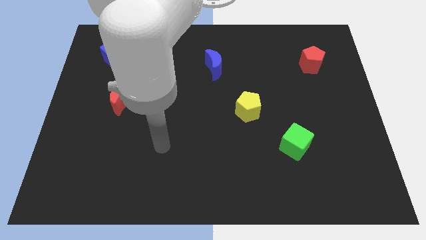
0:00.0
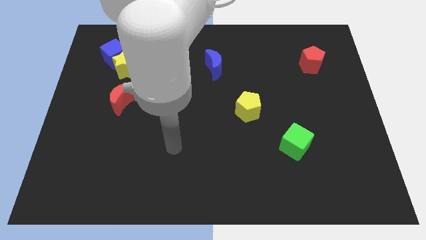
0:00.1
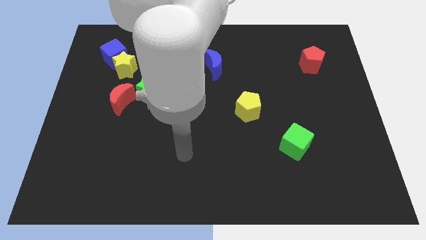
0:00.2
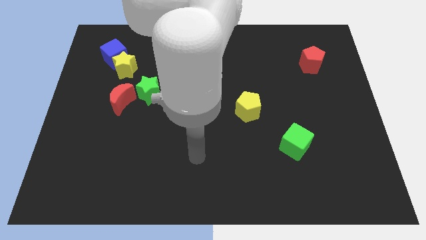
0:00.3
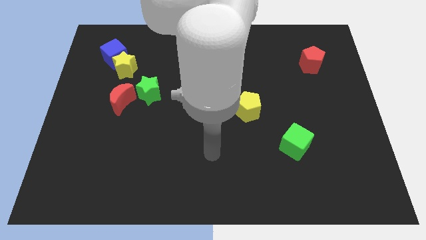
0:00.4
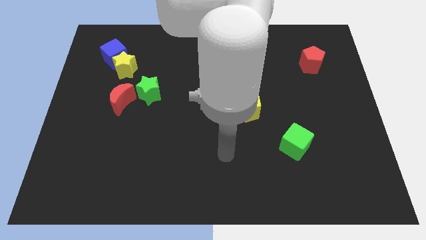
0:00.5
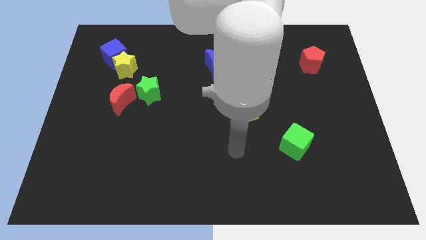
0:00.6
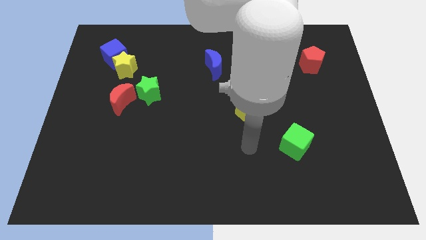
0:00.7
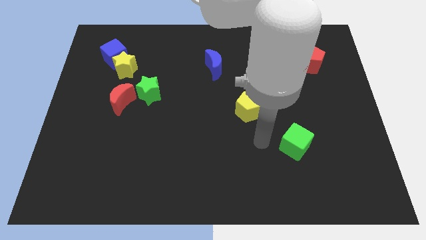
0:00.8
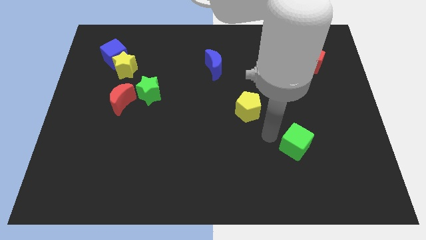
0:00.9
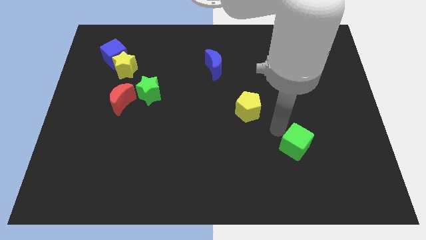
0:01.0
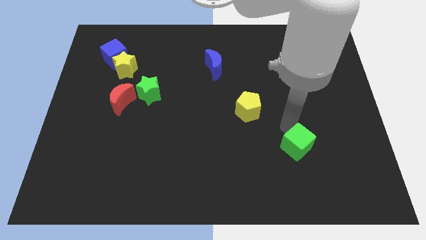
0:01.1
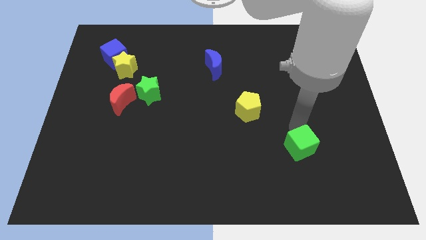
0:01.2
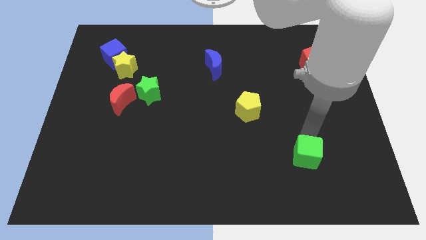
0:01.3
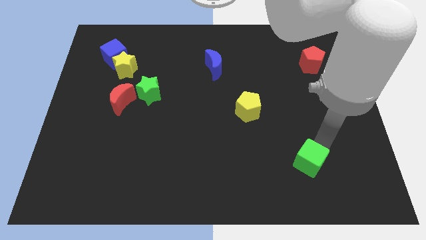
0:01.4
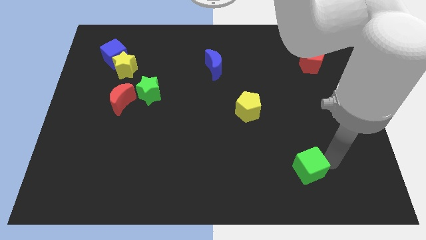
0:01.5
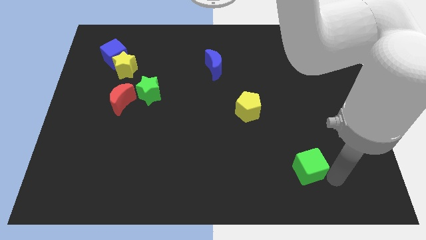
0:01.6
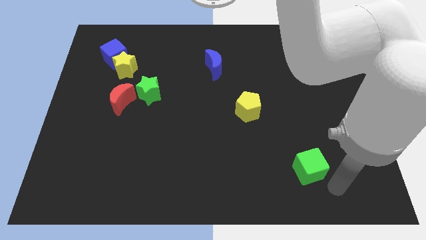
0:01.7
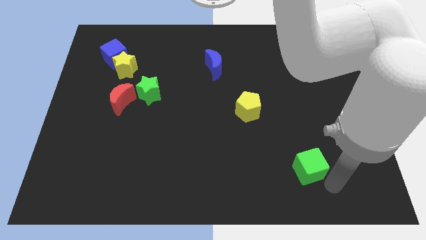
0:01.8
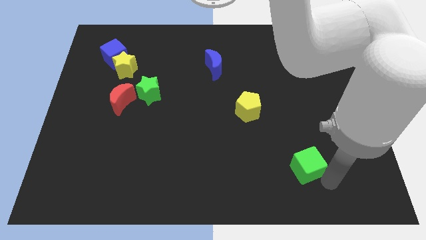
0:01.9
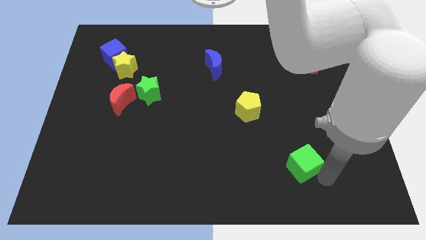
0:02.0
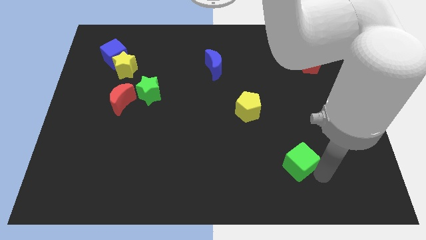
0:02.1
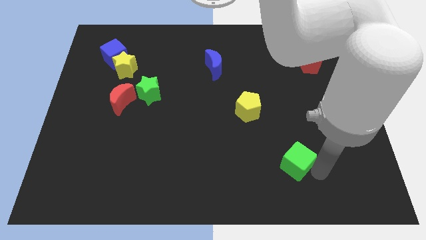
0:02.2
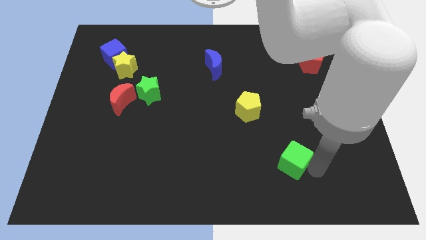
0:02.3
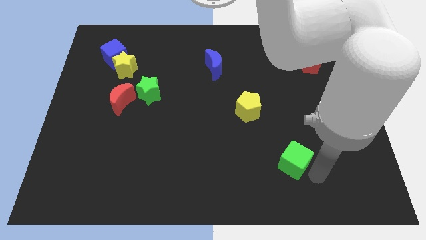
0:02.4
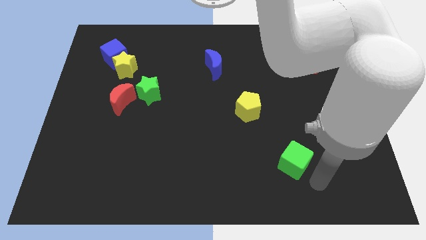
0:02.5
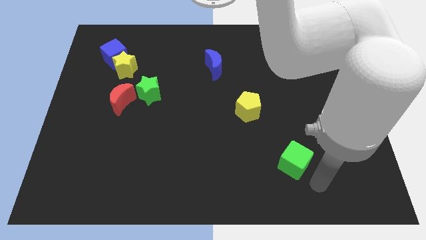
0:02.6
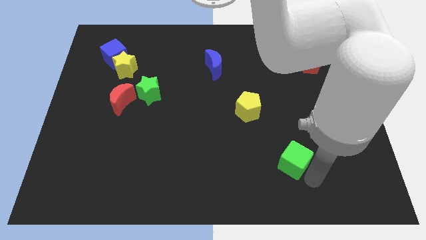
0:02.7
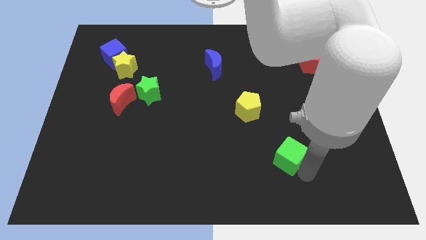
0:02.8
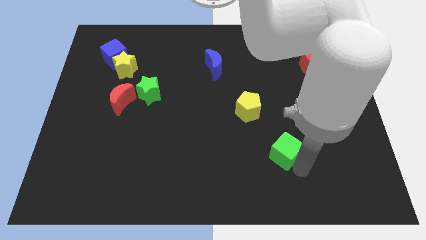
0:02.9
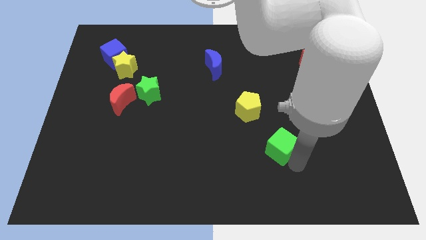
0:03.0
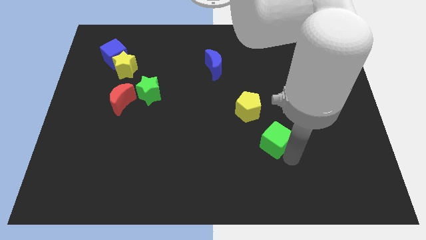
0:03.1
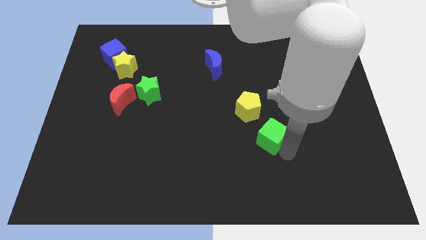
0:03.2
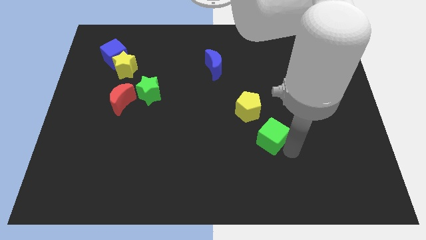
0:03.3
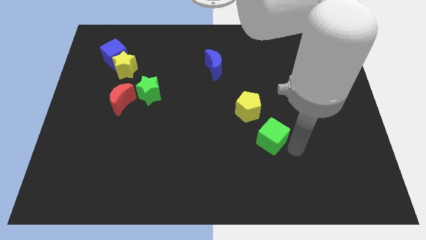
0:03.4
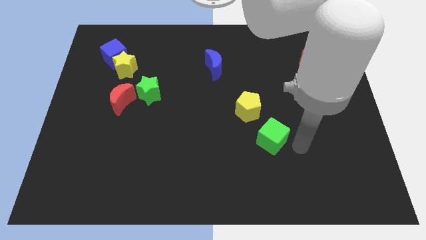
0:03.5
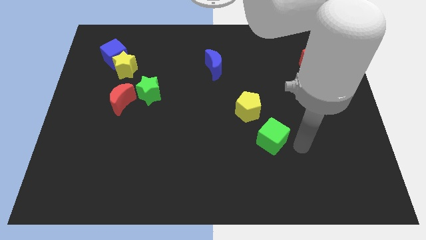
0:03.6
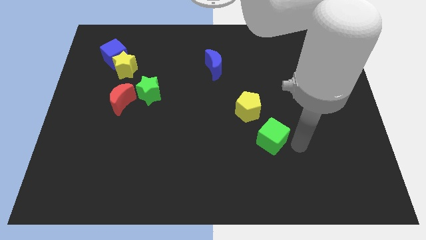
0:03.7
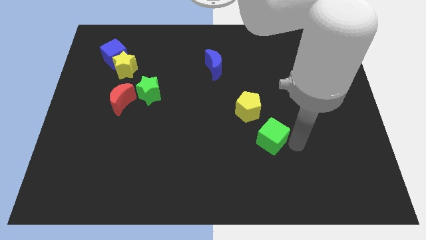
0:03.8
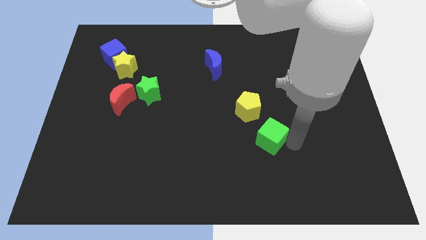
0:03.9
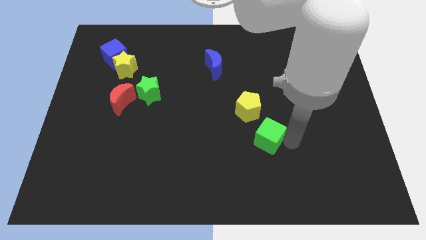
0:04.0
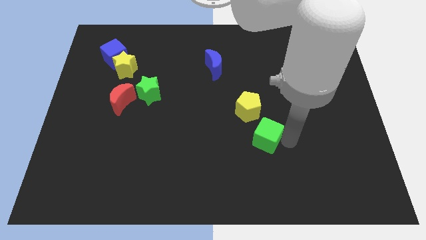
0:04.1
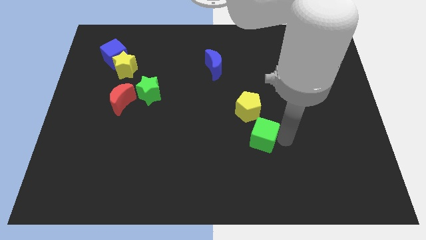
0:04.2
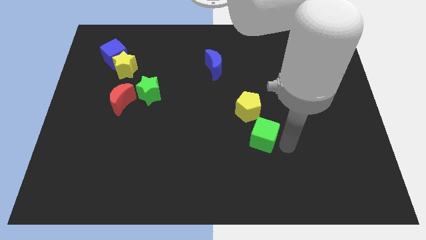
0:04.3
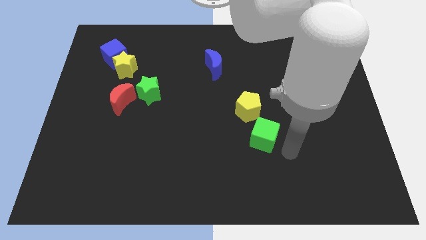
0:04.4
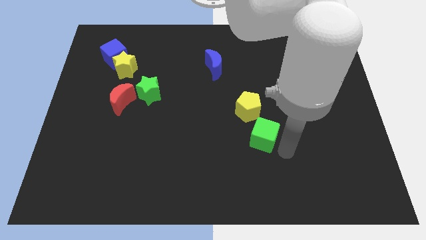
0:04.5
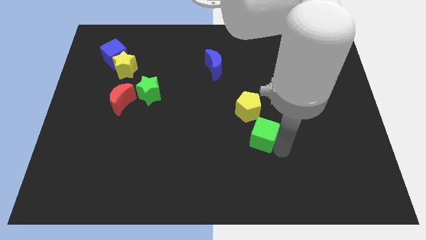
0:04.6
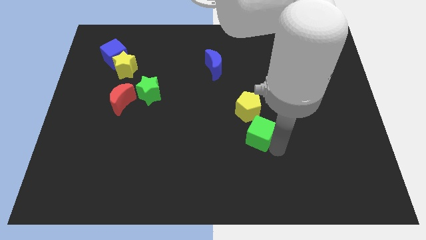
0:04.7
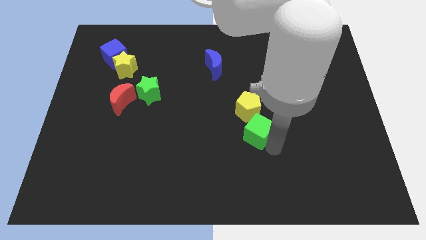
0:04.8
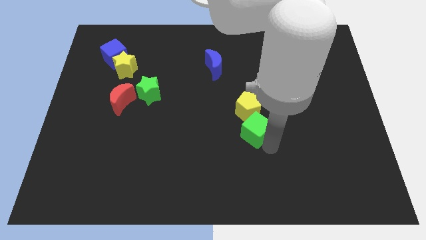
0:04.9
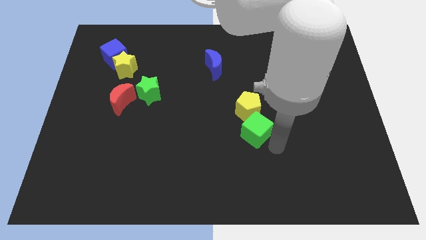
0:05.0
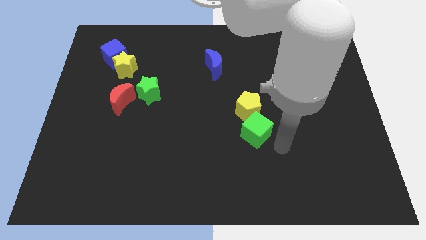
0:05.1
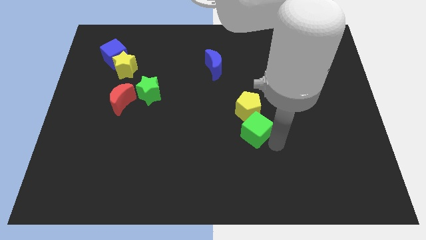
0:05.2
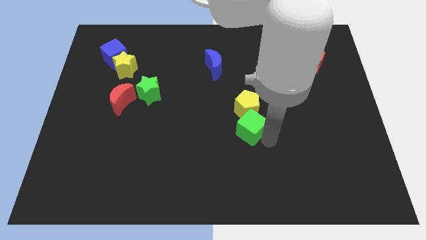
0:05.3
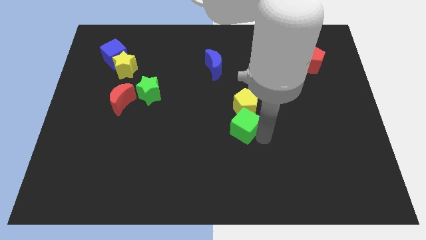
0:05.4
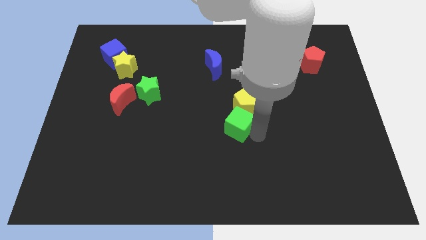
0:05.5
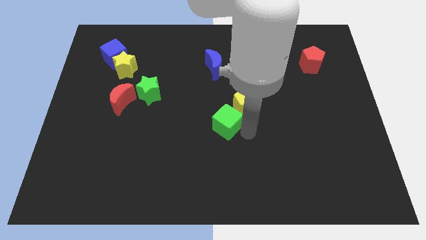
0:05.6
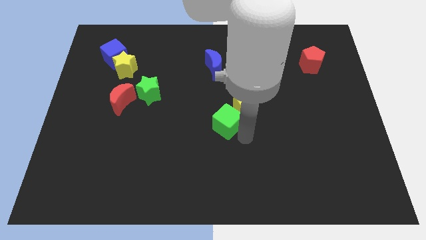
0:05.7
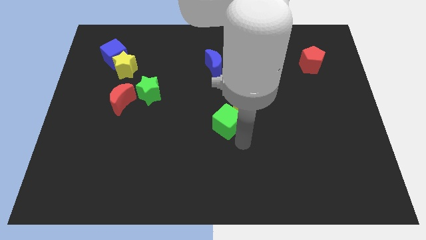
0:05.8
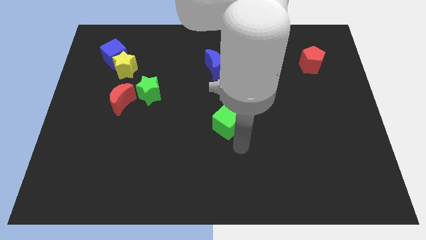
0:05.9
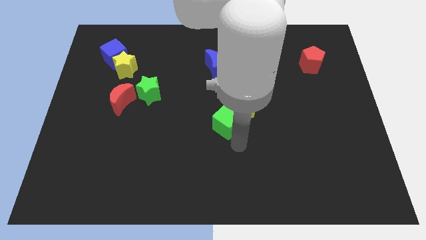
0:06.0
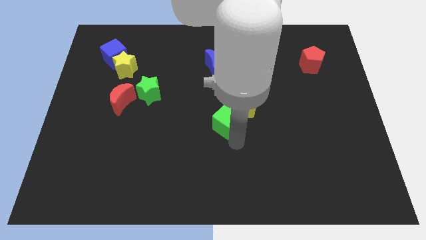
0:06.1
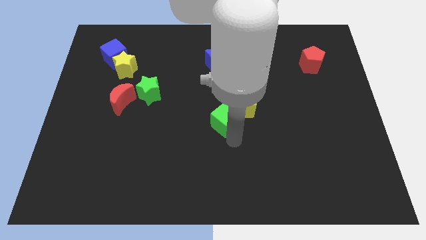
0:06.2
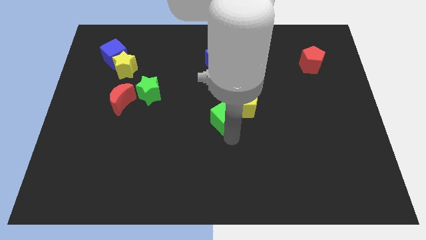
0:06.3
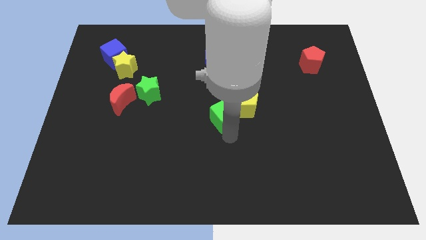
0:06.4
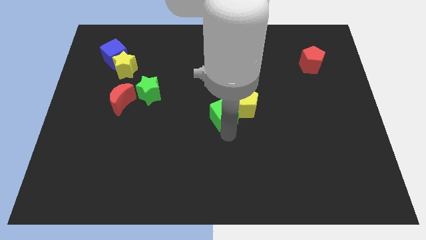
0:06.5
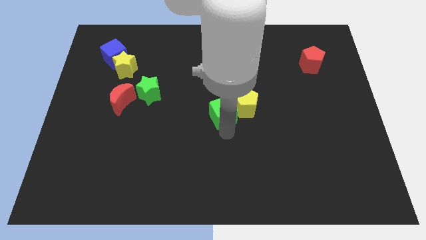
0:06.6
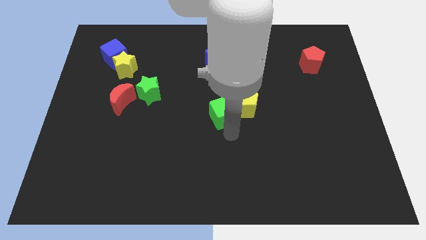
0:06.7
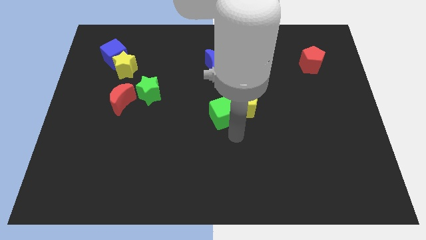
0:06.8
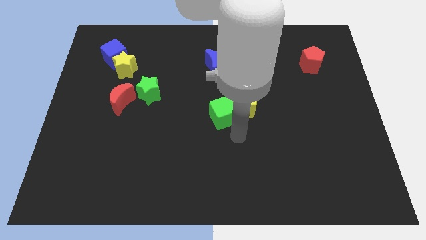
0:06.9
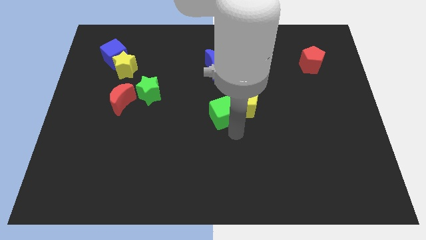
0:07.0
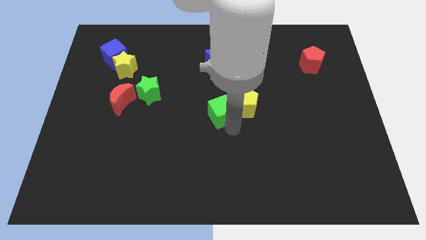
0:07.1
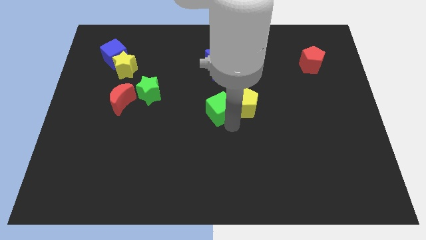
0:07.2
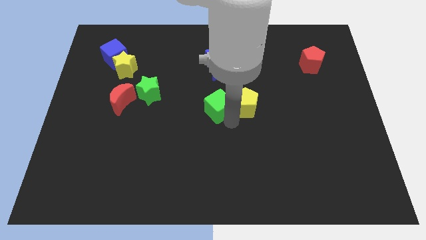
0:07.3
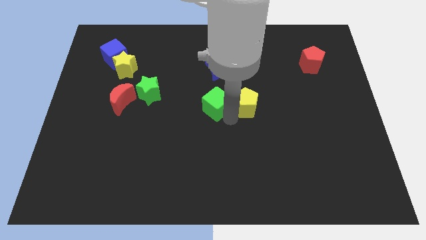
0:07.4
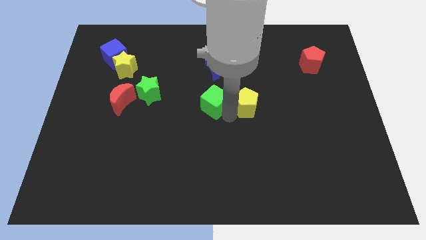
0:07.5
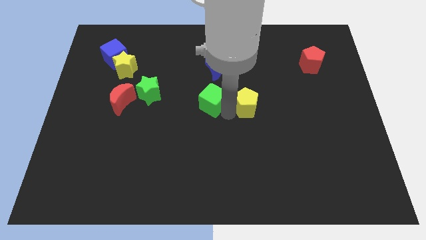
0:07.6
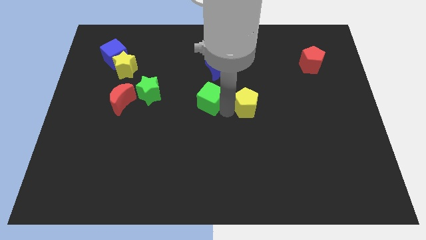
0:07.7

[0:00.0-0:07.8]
put the green cube right of the green star
